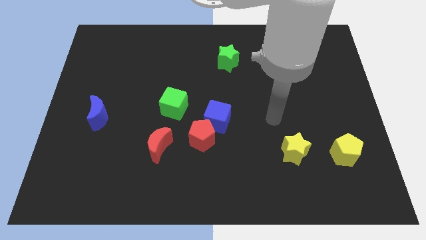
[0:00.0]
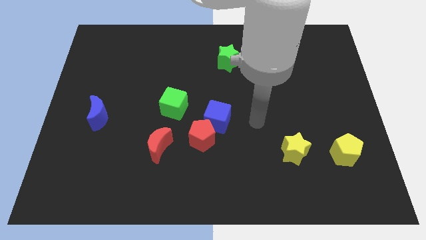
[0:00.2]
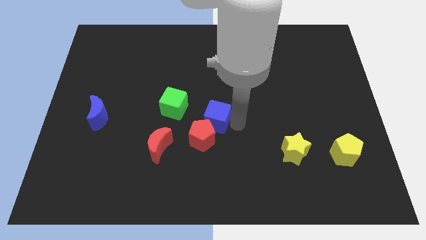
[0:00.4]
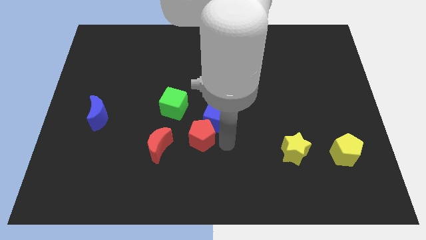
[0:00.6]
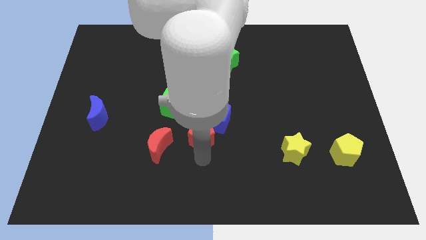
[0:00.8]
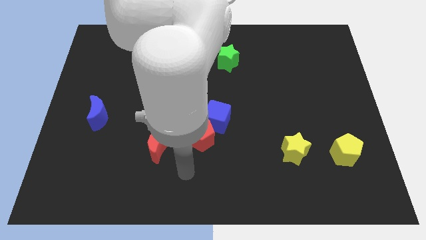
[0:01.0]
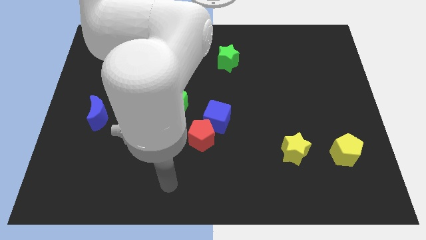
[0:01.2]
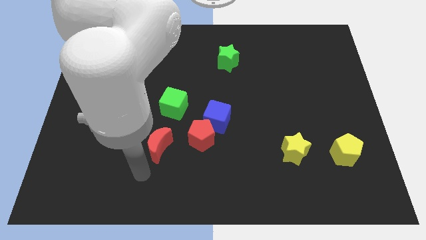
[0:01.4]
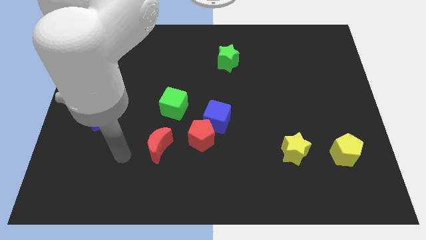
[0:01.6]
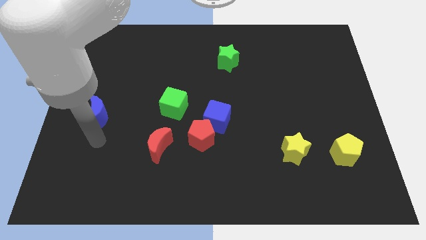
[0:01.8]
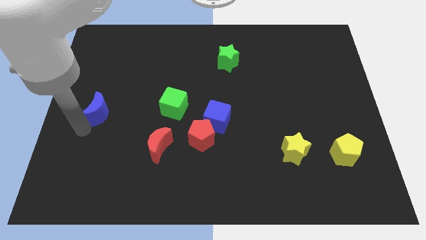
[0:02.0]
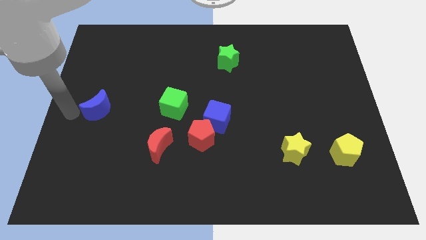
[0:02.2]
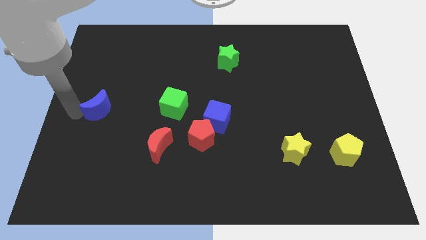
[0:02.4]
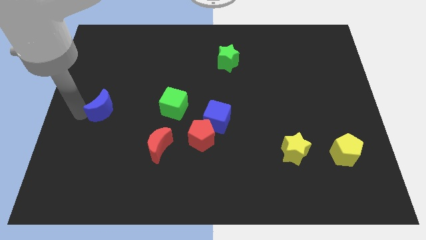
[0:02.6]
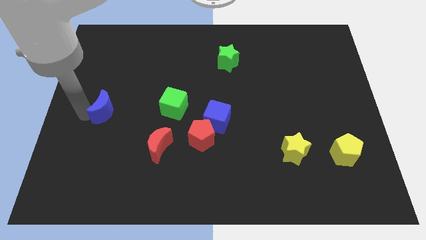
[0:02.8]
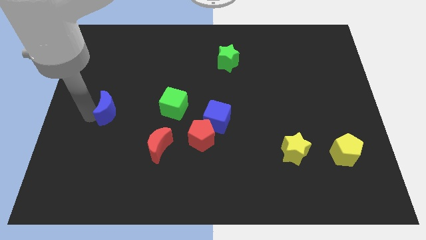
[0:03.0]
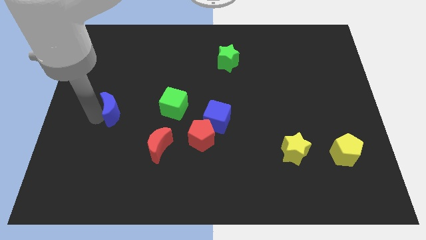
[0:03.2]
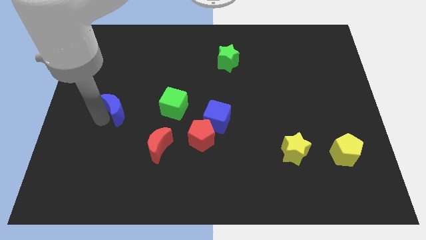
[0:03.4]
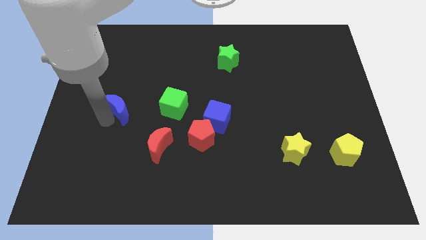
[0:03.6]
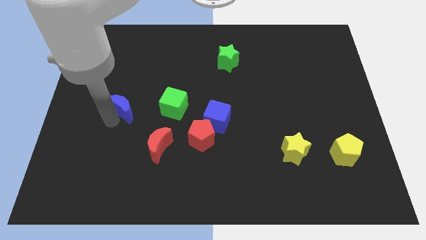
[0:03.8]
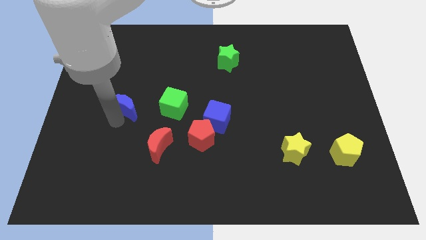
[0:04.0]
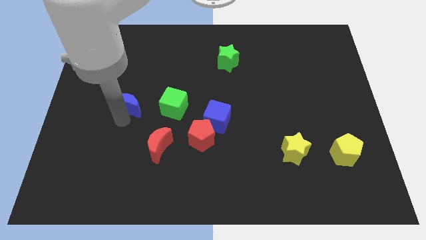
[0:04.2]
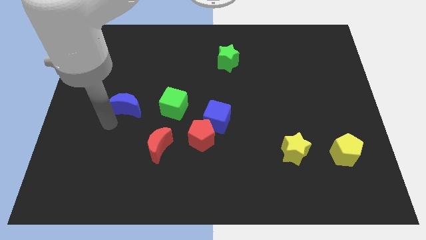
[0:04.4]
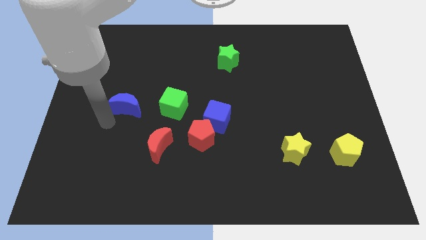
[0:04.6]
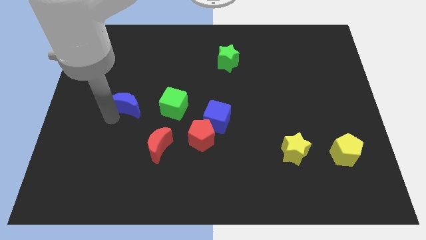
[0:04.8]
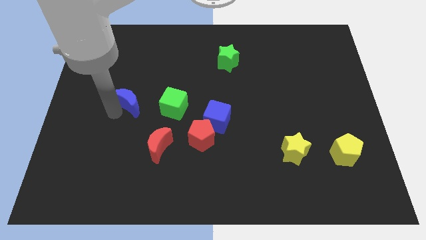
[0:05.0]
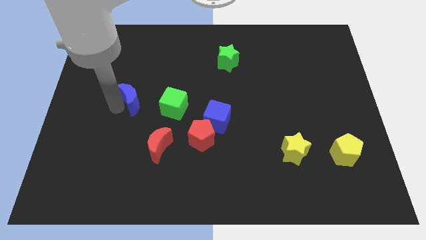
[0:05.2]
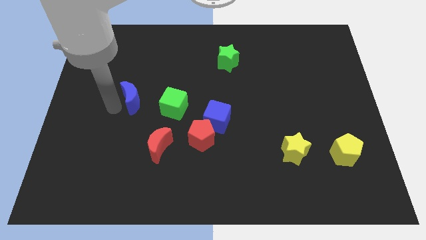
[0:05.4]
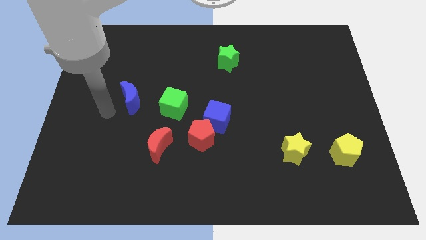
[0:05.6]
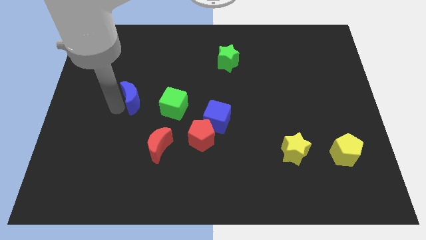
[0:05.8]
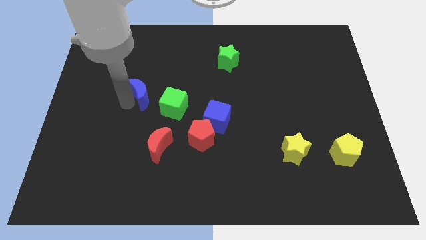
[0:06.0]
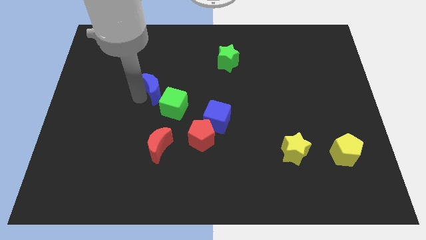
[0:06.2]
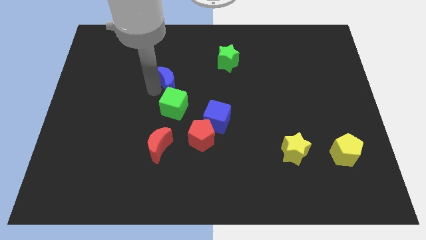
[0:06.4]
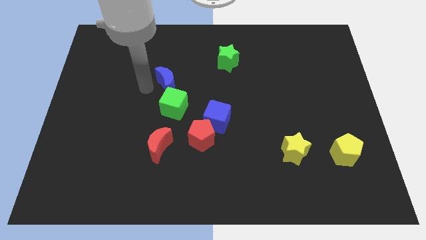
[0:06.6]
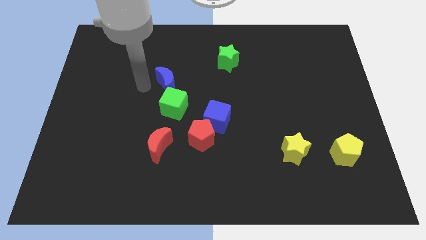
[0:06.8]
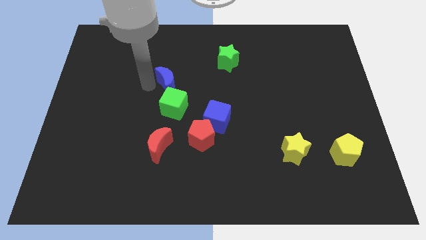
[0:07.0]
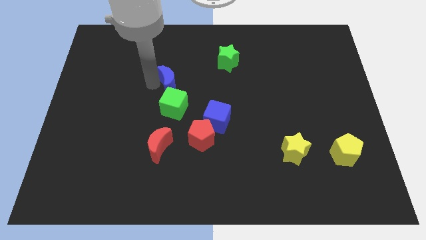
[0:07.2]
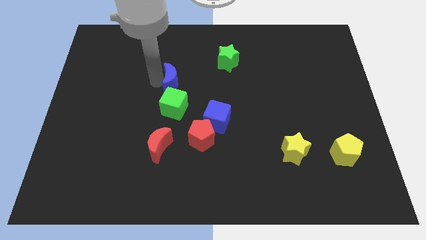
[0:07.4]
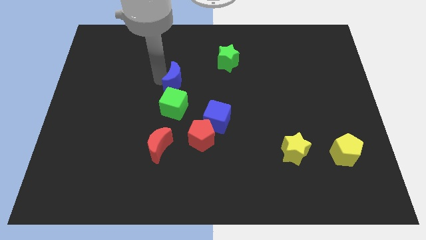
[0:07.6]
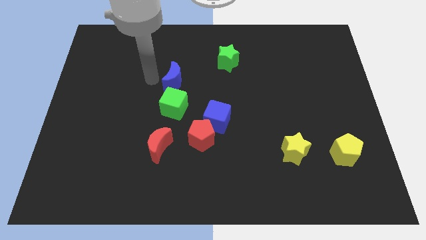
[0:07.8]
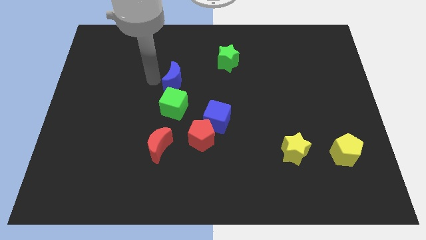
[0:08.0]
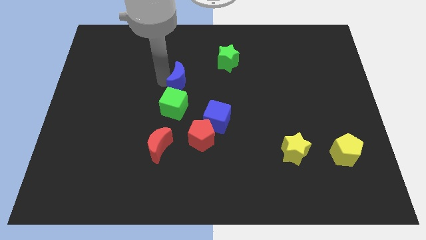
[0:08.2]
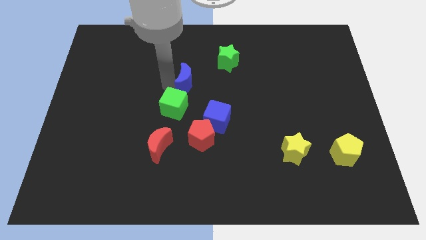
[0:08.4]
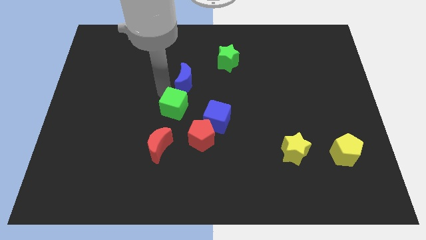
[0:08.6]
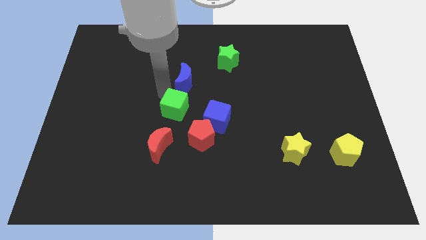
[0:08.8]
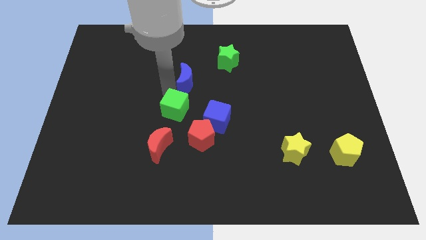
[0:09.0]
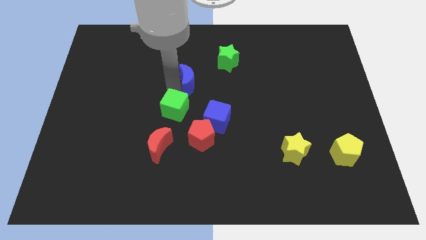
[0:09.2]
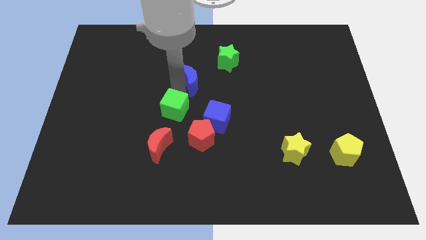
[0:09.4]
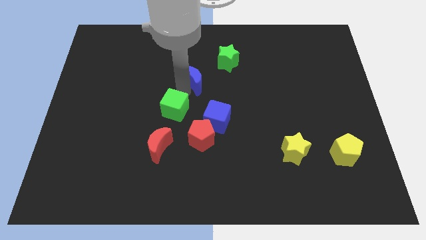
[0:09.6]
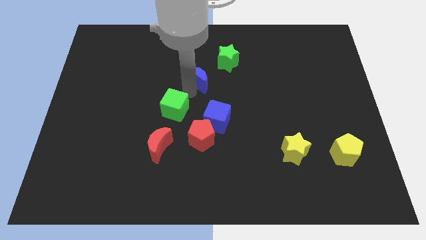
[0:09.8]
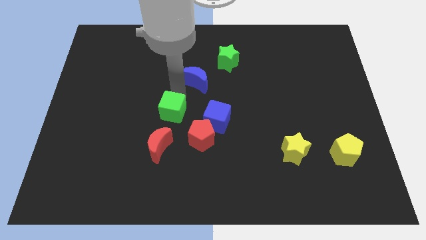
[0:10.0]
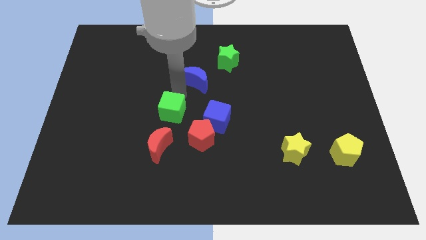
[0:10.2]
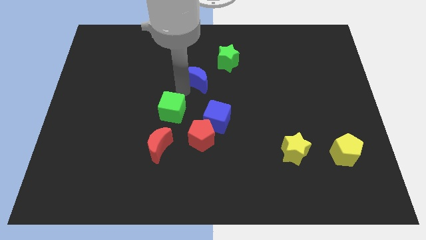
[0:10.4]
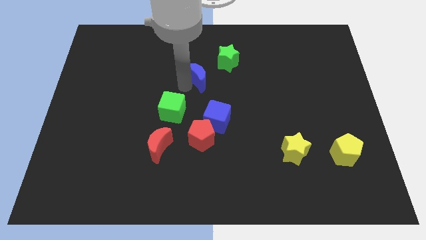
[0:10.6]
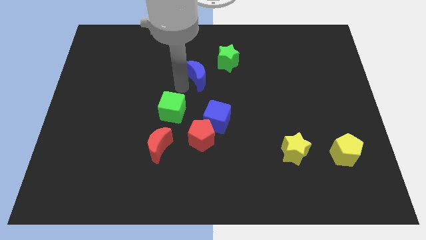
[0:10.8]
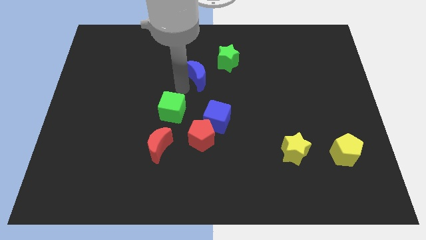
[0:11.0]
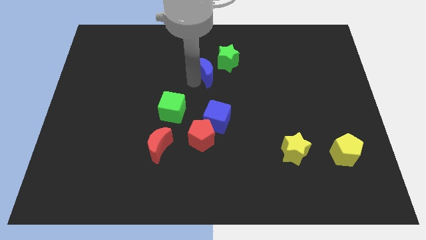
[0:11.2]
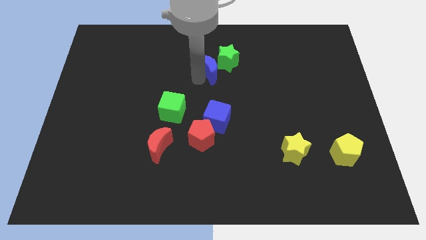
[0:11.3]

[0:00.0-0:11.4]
push the blue moon close to the green star

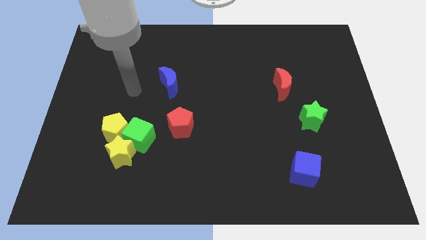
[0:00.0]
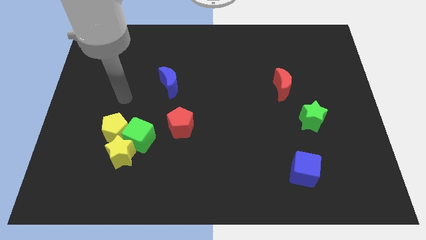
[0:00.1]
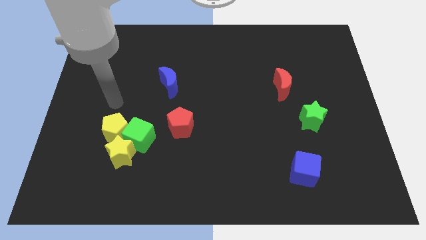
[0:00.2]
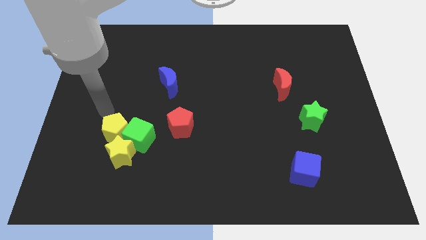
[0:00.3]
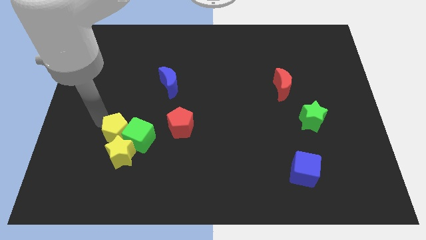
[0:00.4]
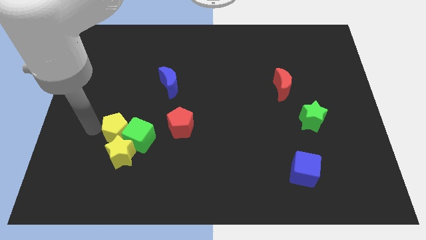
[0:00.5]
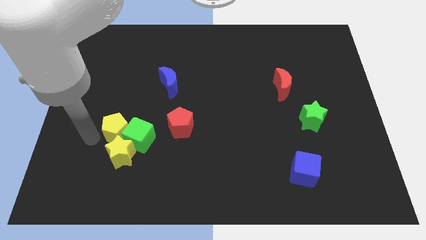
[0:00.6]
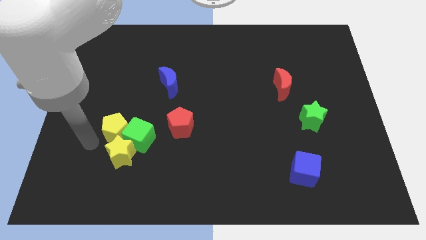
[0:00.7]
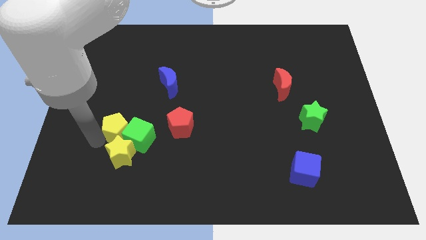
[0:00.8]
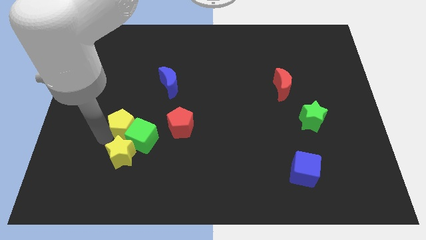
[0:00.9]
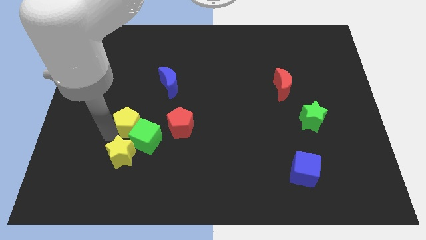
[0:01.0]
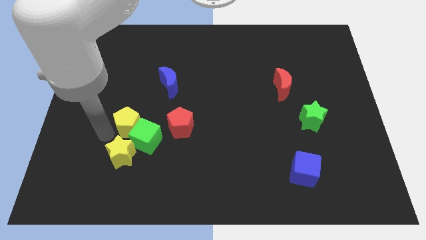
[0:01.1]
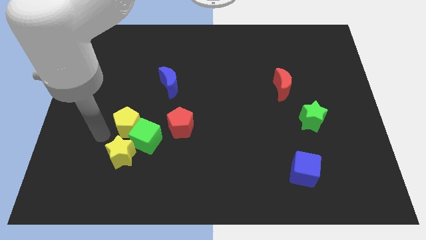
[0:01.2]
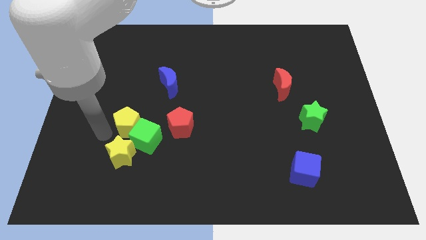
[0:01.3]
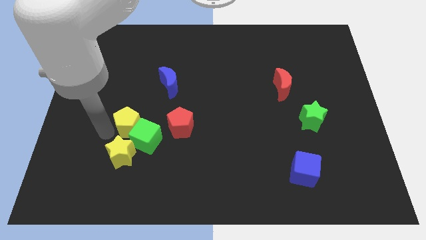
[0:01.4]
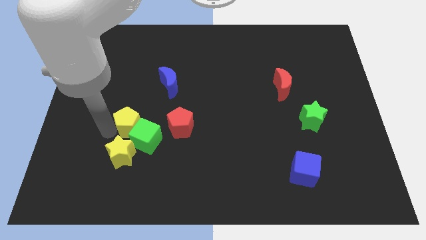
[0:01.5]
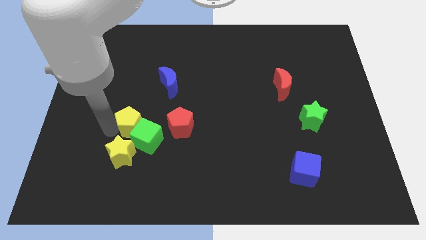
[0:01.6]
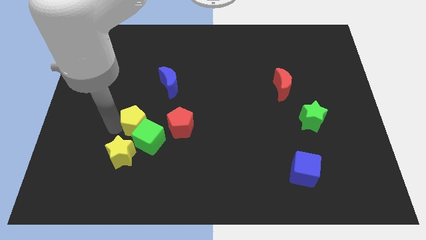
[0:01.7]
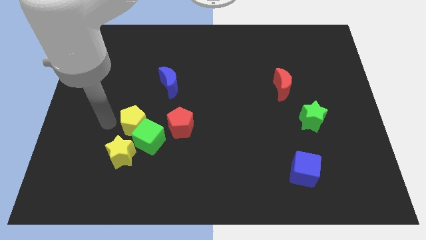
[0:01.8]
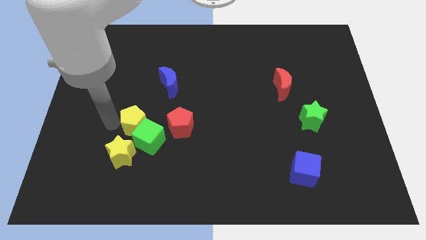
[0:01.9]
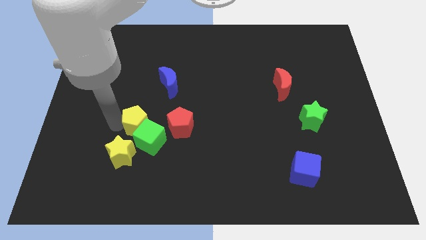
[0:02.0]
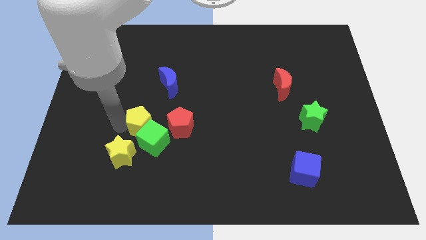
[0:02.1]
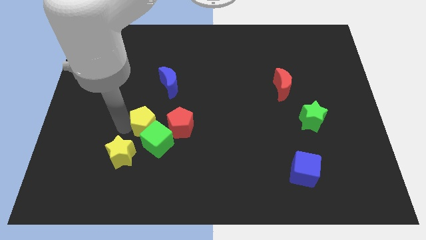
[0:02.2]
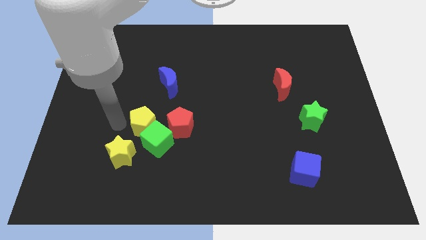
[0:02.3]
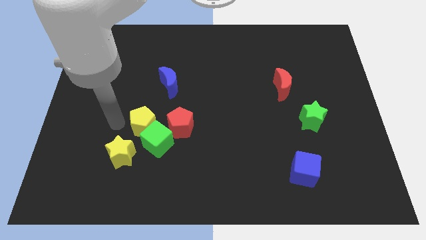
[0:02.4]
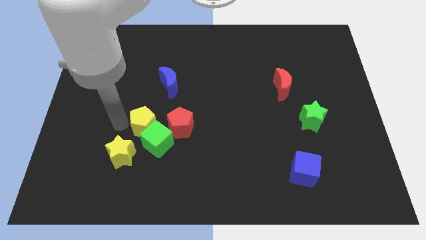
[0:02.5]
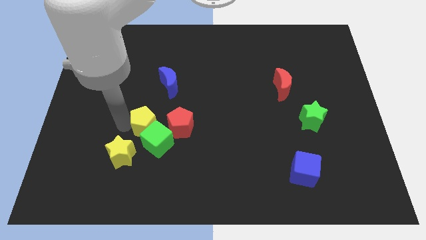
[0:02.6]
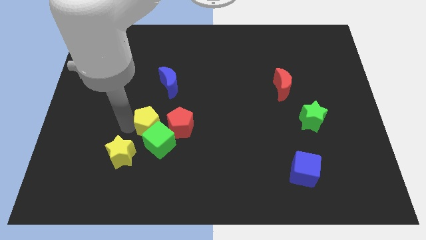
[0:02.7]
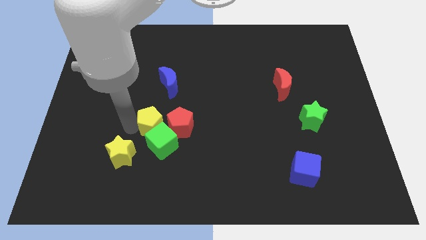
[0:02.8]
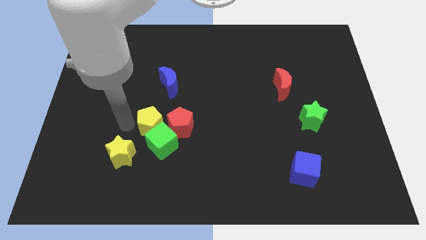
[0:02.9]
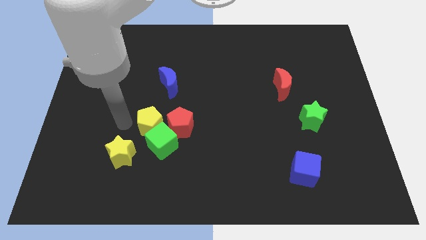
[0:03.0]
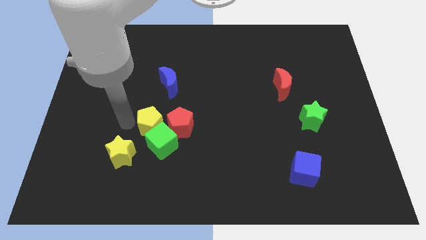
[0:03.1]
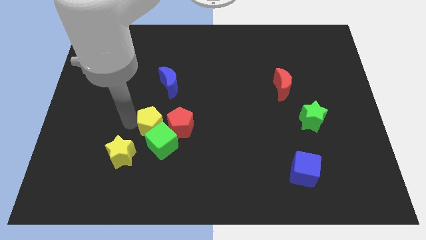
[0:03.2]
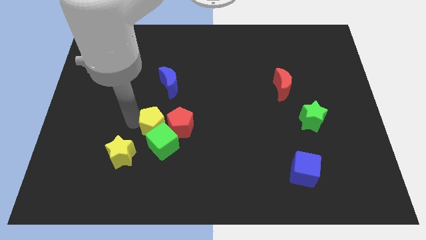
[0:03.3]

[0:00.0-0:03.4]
move the yellow pentagon to the red pentagon
